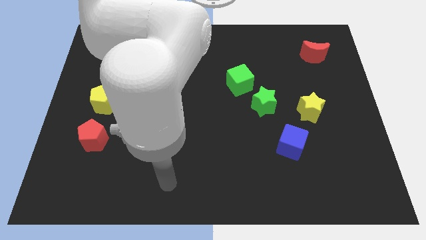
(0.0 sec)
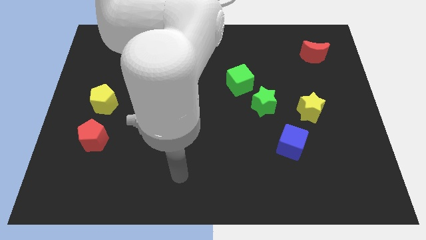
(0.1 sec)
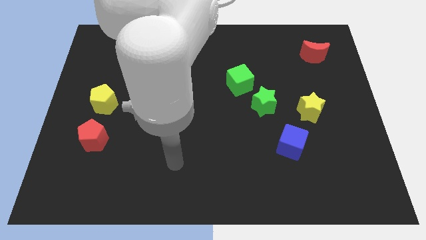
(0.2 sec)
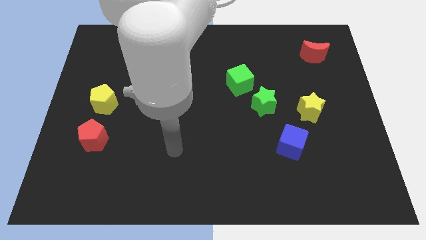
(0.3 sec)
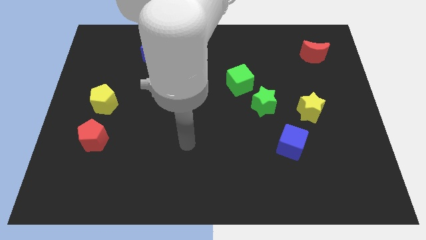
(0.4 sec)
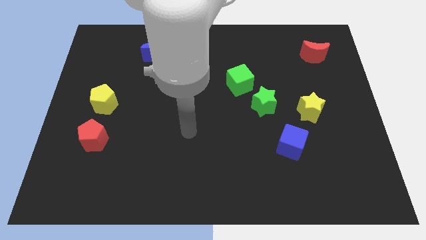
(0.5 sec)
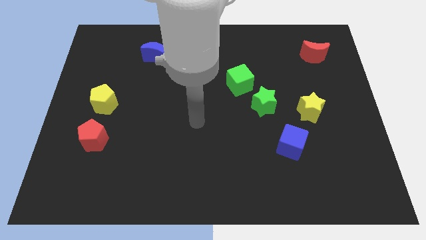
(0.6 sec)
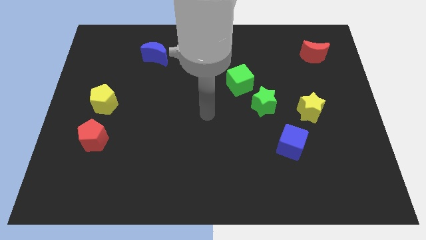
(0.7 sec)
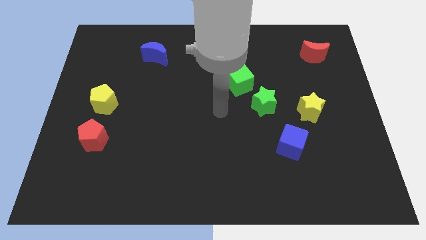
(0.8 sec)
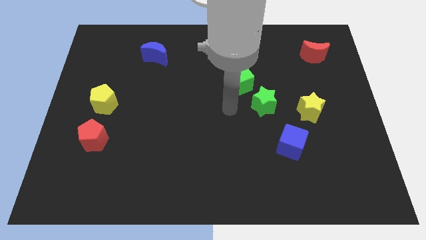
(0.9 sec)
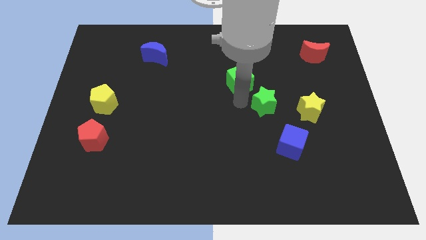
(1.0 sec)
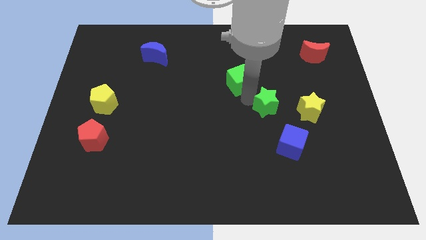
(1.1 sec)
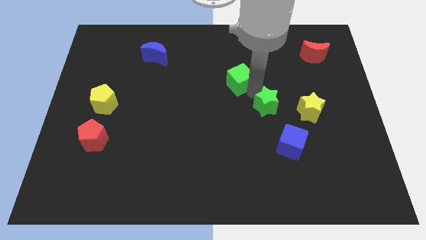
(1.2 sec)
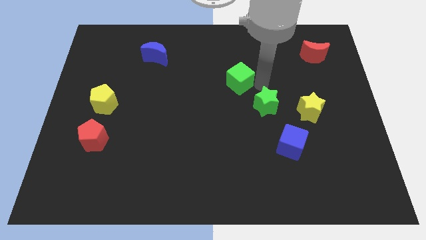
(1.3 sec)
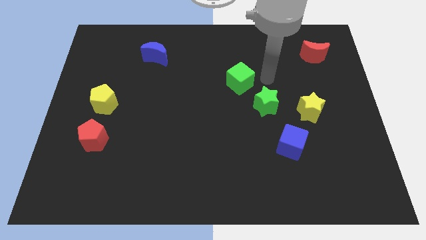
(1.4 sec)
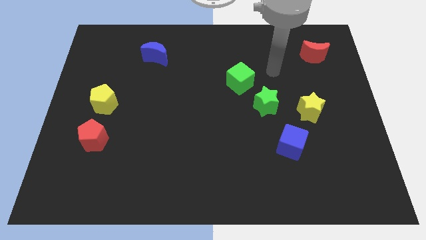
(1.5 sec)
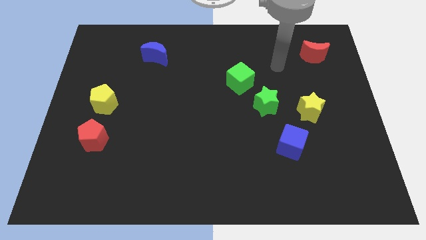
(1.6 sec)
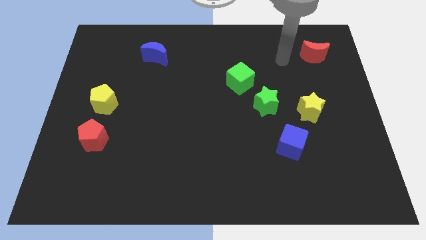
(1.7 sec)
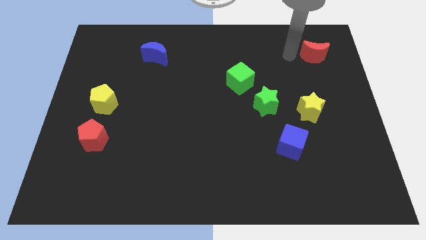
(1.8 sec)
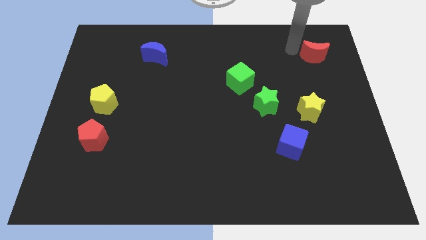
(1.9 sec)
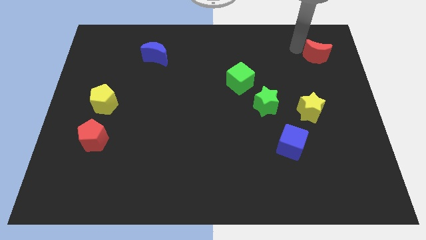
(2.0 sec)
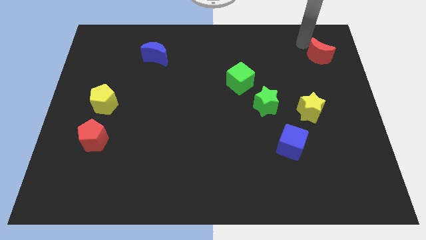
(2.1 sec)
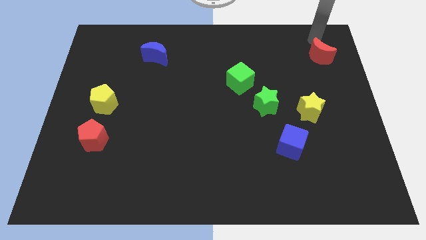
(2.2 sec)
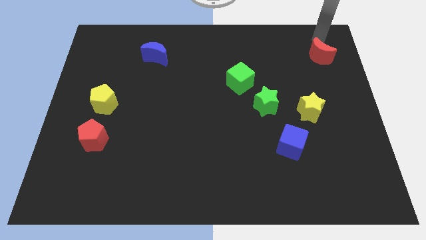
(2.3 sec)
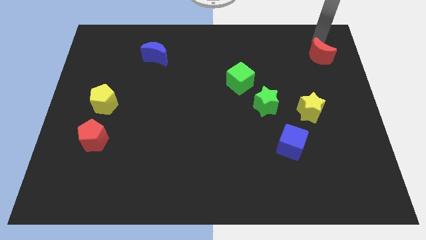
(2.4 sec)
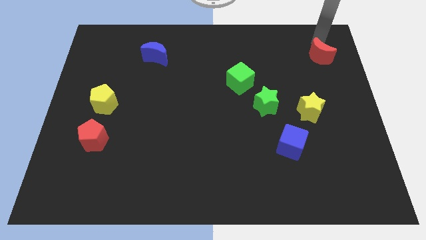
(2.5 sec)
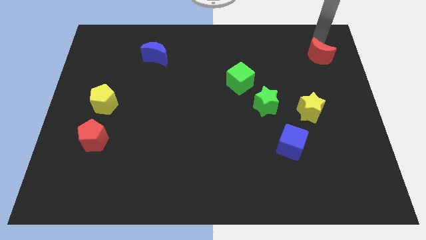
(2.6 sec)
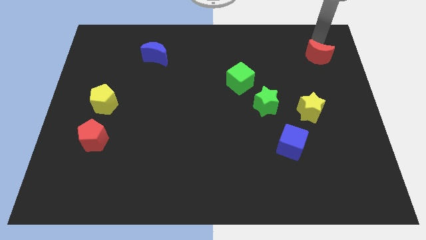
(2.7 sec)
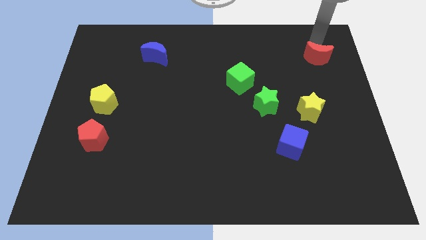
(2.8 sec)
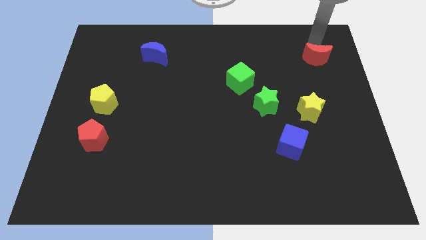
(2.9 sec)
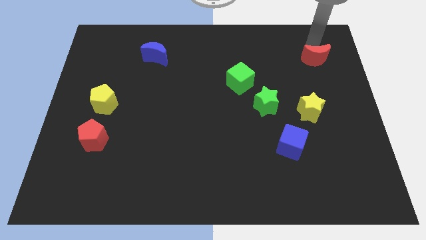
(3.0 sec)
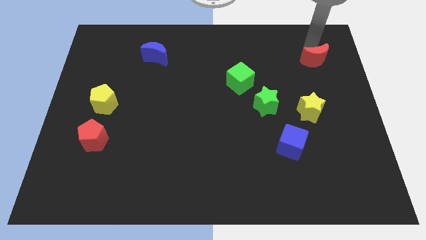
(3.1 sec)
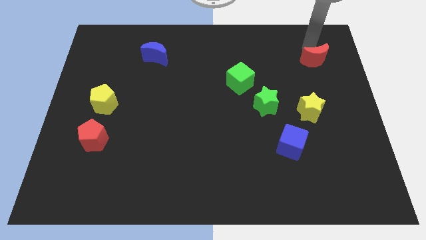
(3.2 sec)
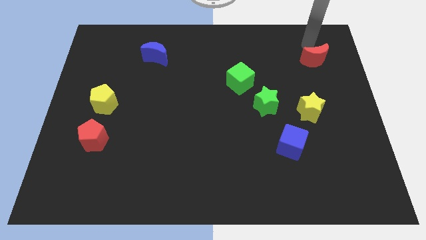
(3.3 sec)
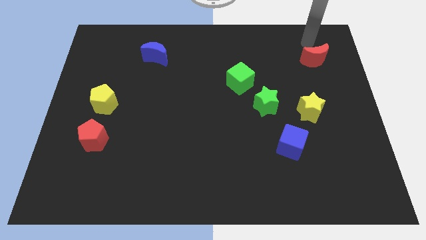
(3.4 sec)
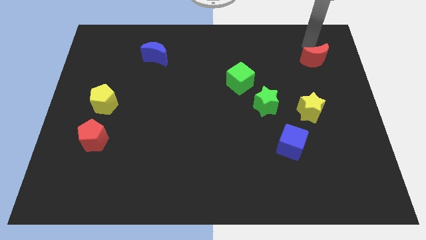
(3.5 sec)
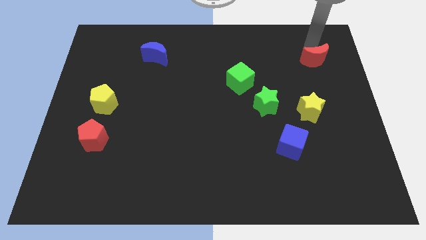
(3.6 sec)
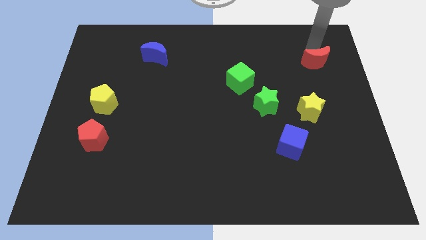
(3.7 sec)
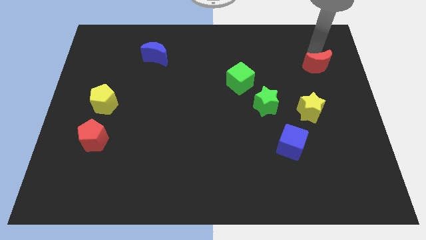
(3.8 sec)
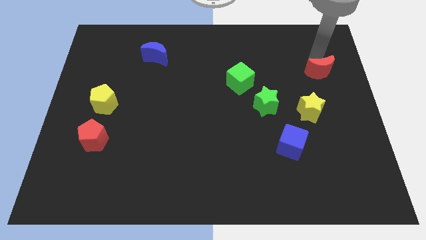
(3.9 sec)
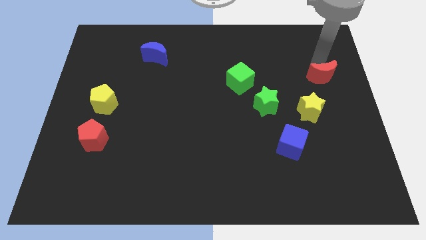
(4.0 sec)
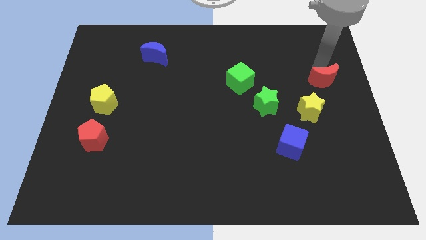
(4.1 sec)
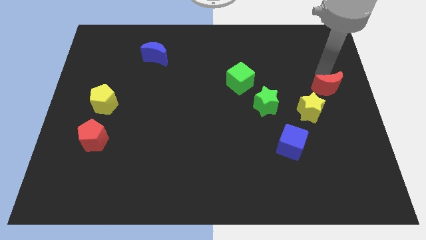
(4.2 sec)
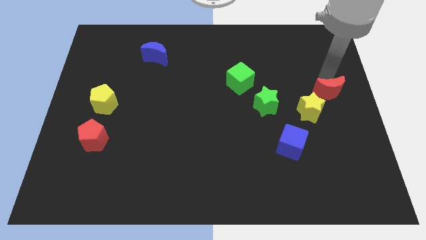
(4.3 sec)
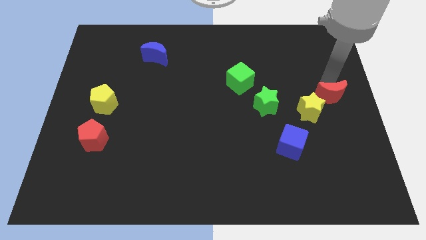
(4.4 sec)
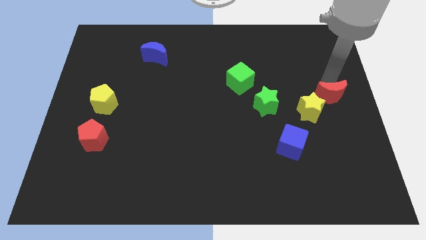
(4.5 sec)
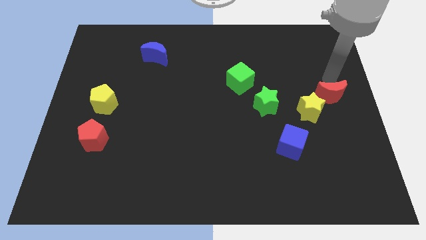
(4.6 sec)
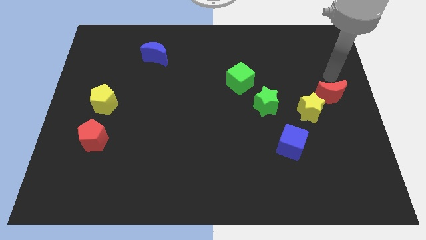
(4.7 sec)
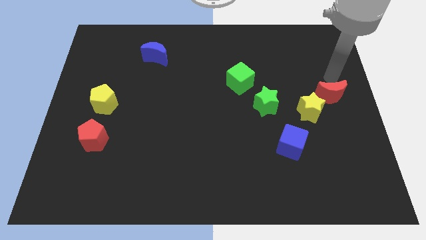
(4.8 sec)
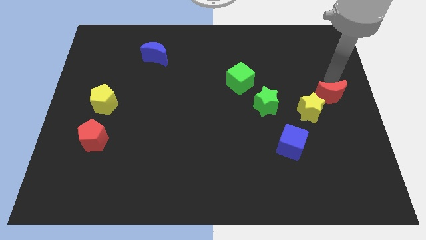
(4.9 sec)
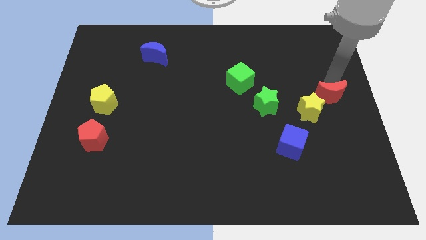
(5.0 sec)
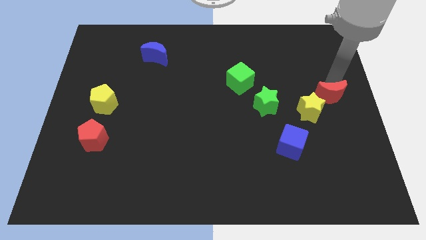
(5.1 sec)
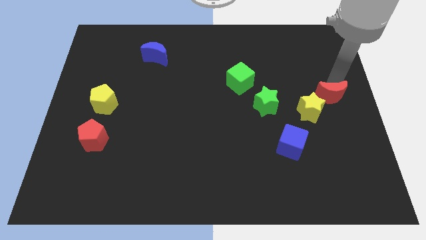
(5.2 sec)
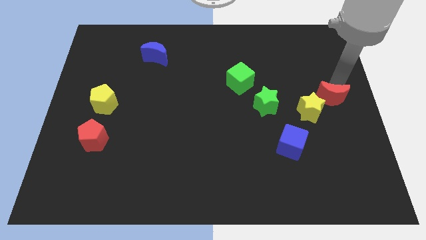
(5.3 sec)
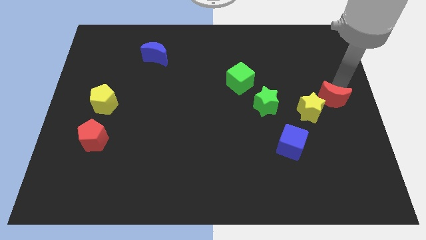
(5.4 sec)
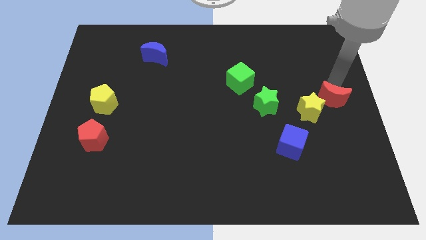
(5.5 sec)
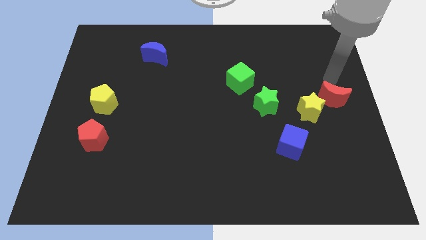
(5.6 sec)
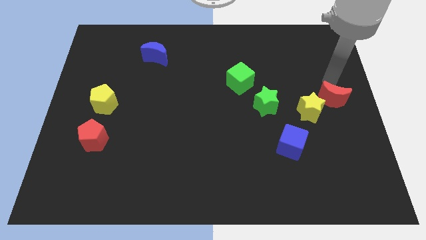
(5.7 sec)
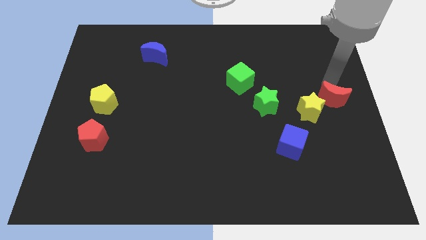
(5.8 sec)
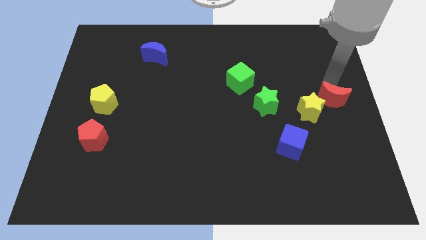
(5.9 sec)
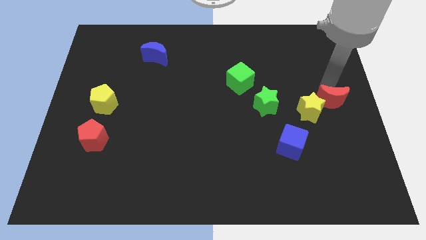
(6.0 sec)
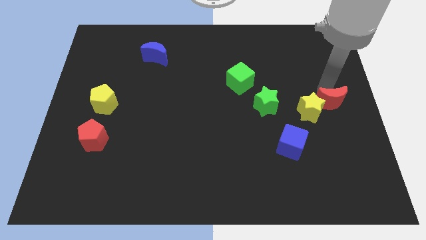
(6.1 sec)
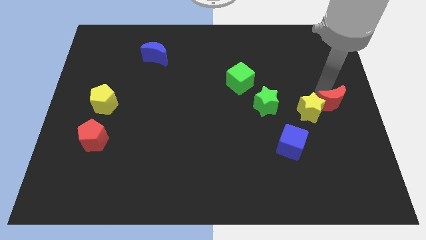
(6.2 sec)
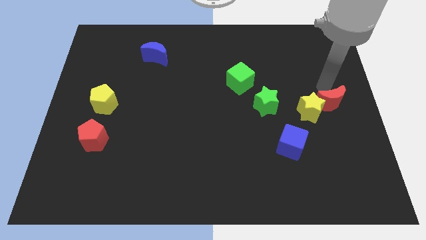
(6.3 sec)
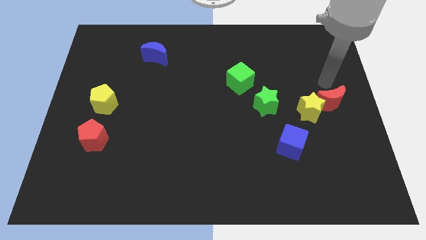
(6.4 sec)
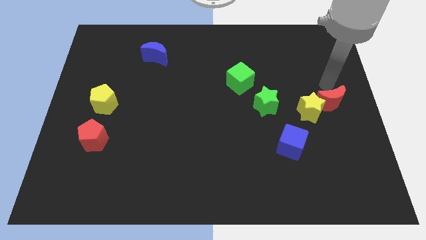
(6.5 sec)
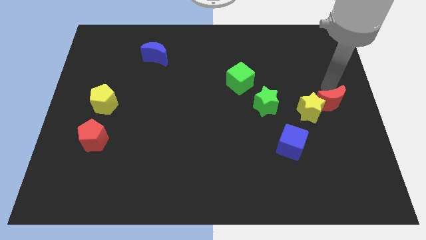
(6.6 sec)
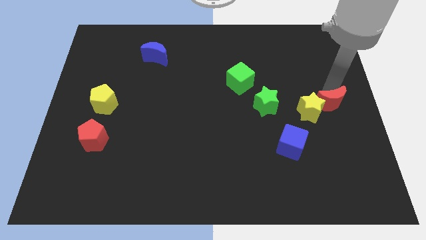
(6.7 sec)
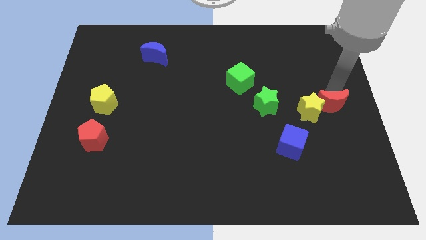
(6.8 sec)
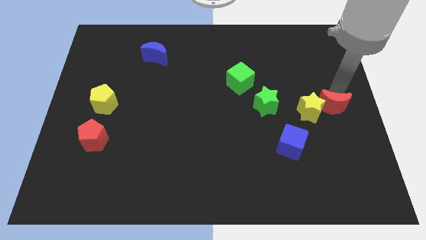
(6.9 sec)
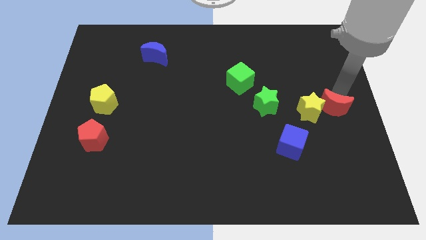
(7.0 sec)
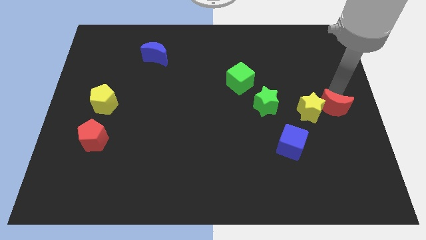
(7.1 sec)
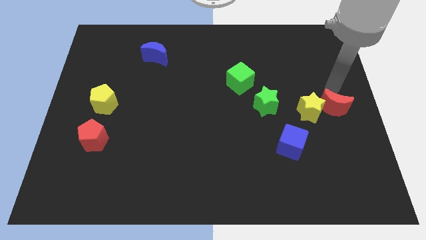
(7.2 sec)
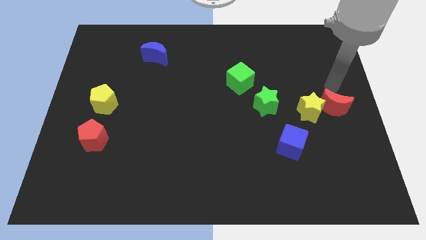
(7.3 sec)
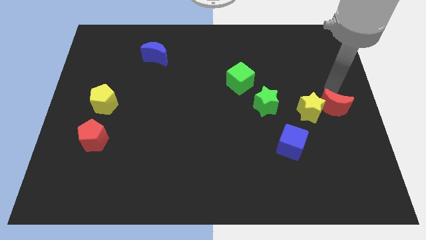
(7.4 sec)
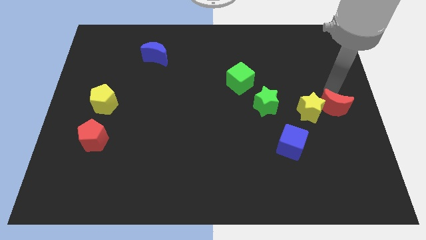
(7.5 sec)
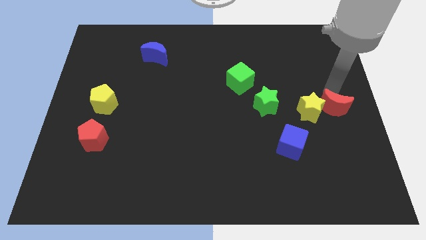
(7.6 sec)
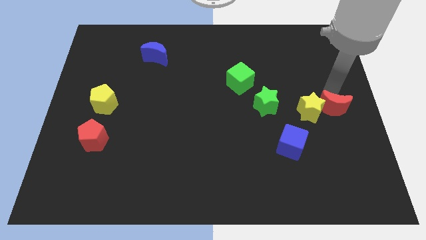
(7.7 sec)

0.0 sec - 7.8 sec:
move the red moon to the bottom right side of the yellow star
